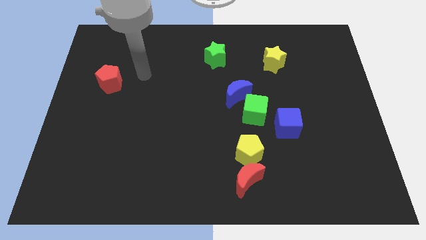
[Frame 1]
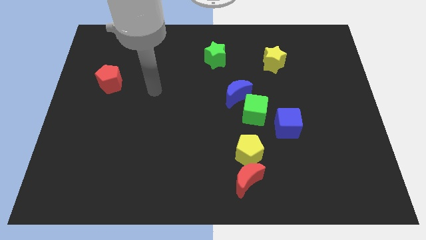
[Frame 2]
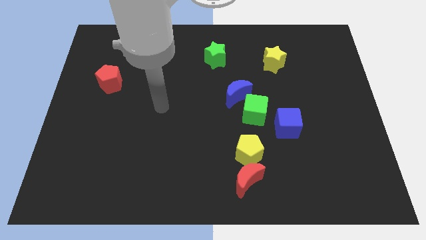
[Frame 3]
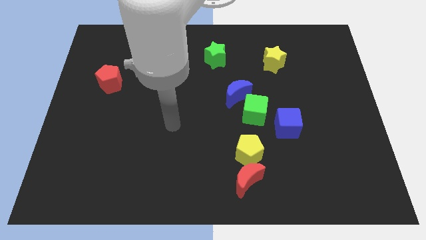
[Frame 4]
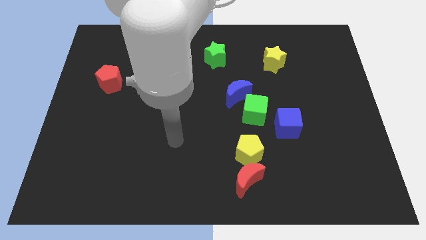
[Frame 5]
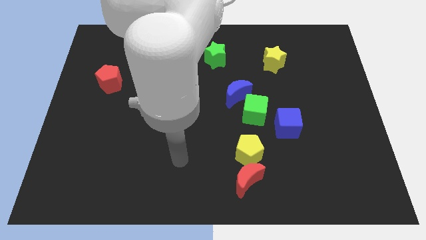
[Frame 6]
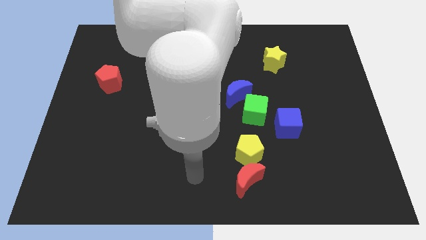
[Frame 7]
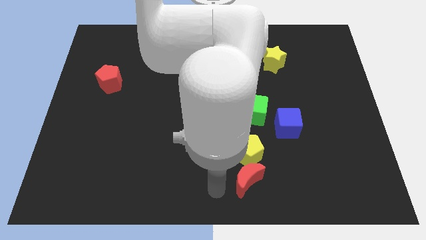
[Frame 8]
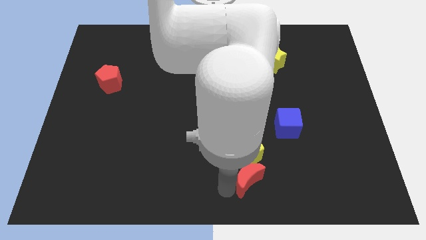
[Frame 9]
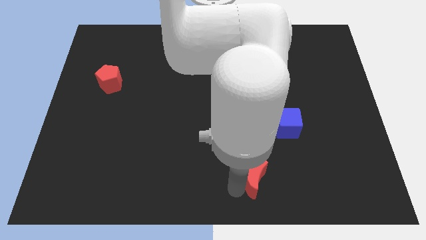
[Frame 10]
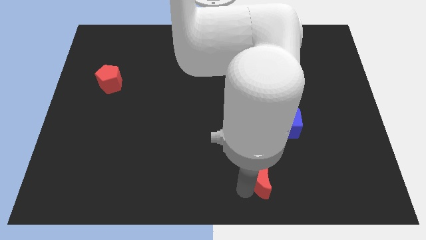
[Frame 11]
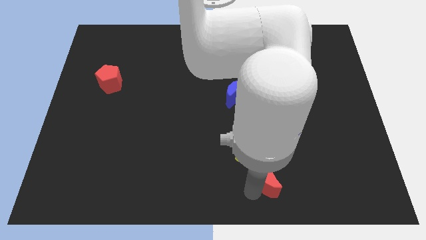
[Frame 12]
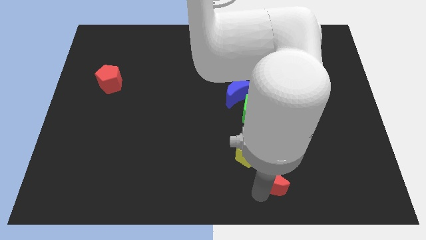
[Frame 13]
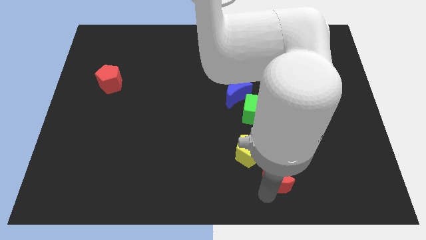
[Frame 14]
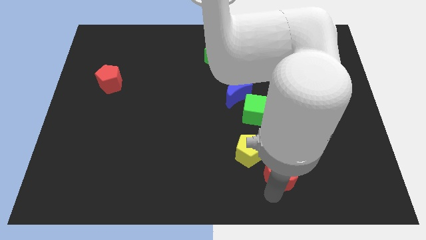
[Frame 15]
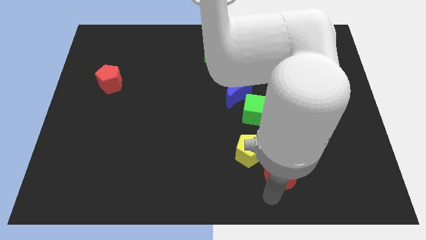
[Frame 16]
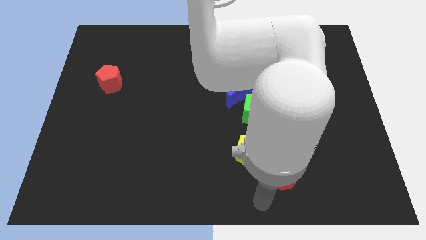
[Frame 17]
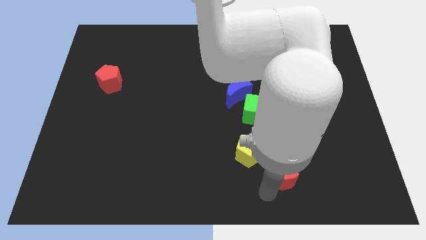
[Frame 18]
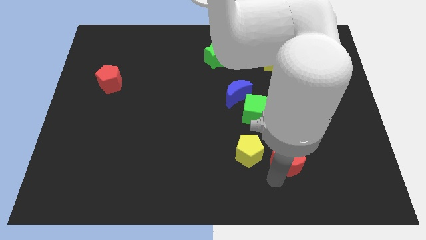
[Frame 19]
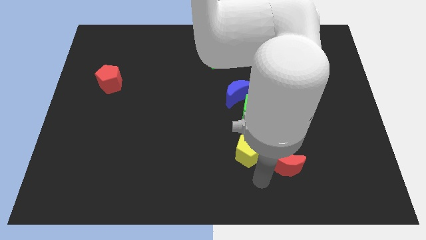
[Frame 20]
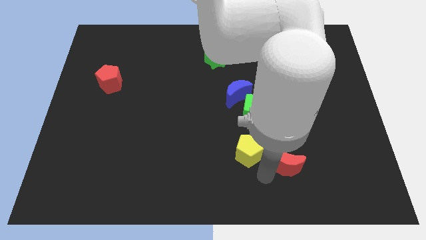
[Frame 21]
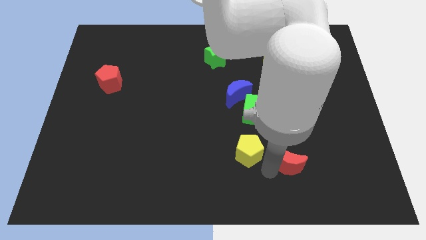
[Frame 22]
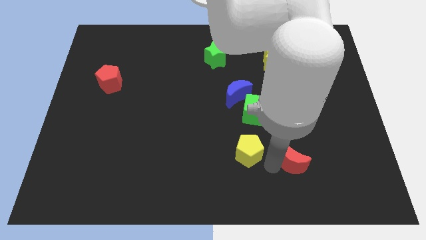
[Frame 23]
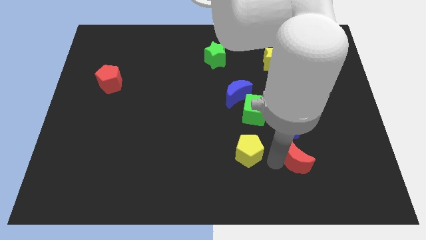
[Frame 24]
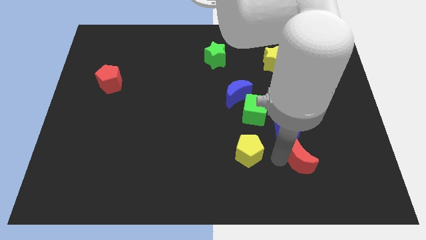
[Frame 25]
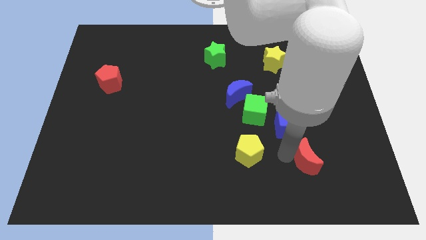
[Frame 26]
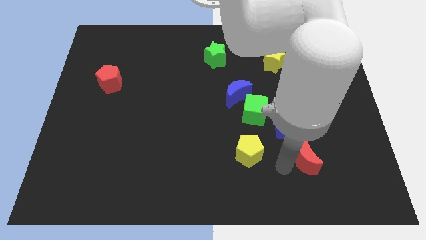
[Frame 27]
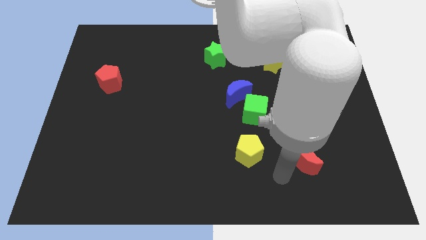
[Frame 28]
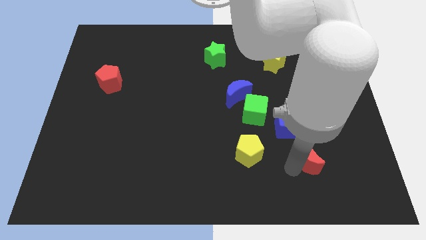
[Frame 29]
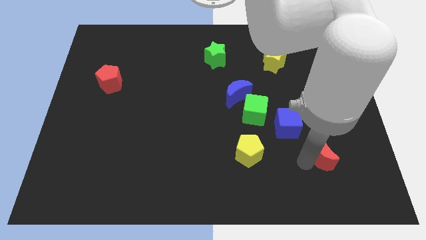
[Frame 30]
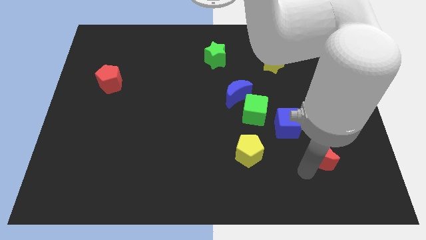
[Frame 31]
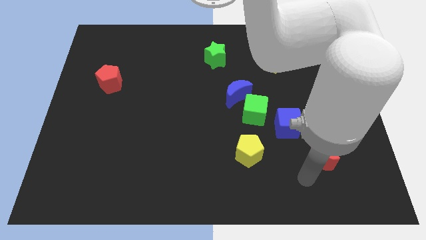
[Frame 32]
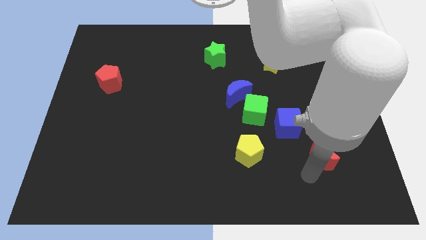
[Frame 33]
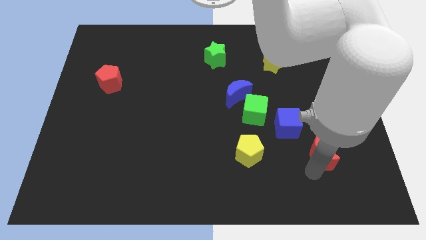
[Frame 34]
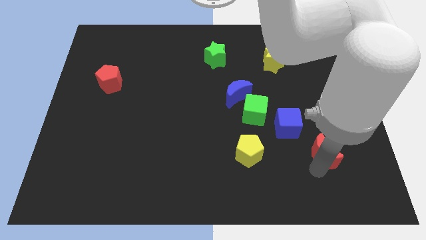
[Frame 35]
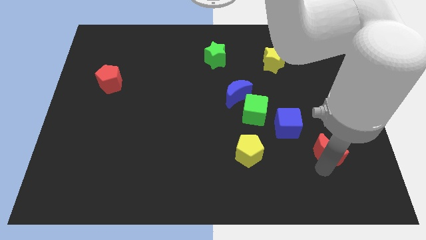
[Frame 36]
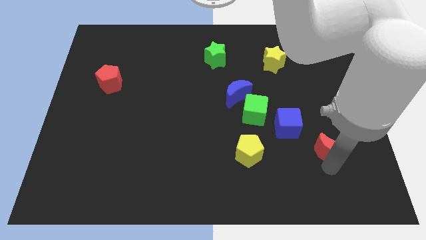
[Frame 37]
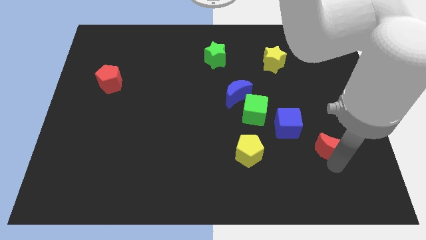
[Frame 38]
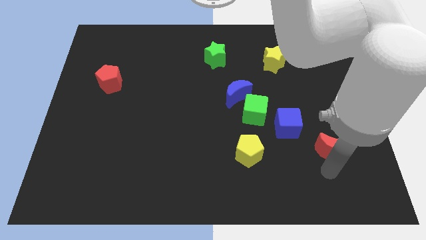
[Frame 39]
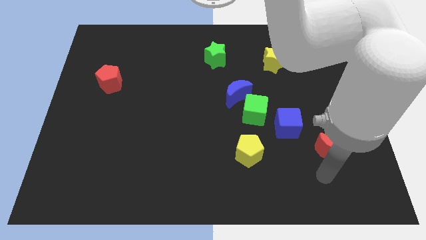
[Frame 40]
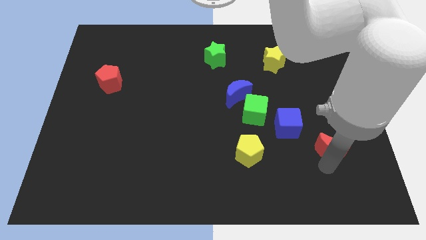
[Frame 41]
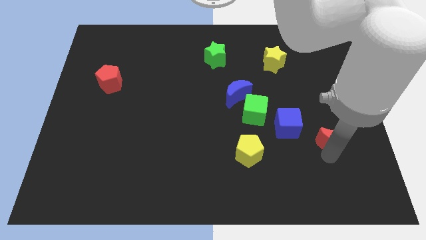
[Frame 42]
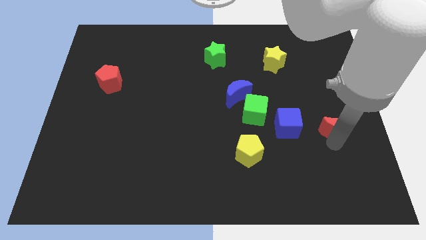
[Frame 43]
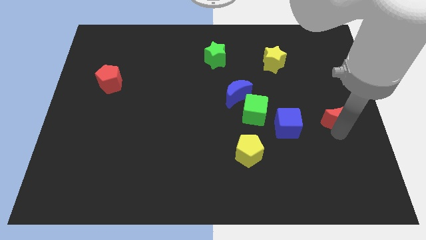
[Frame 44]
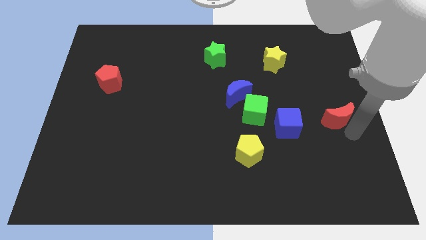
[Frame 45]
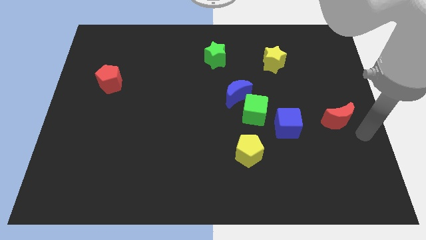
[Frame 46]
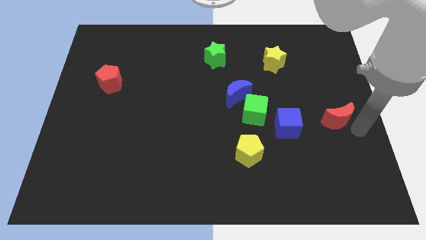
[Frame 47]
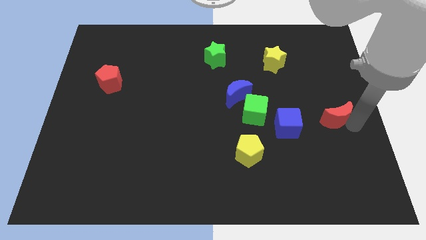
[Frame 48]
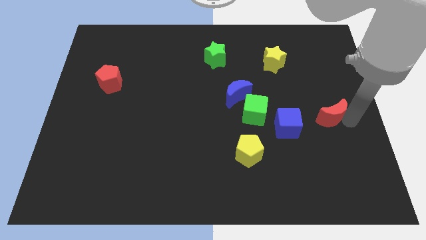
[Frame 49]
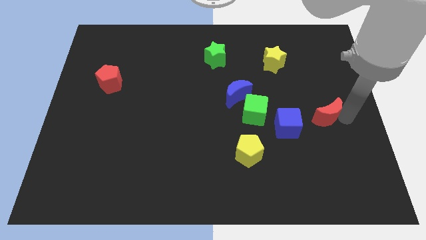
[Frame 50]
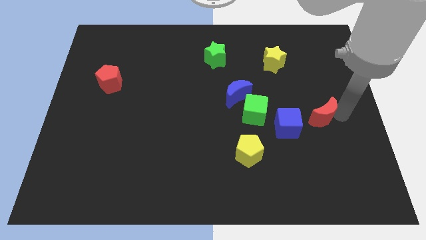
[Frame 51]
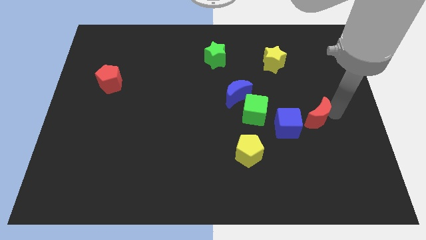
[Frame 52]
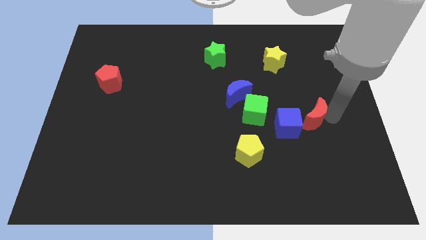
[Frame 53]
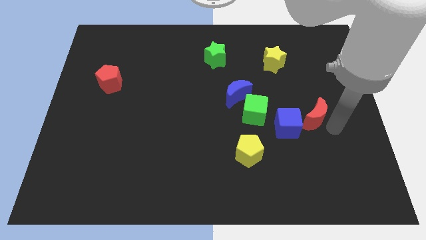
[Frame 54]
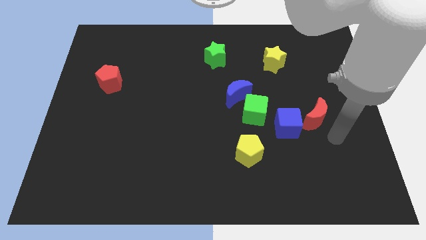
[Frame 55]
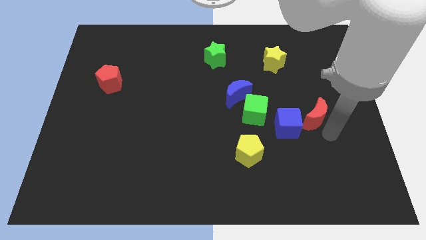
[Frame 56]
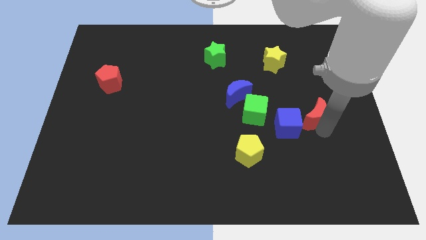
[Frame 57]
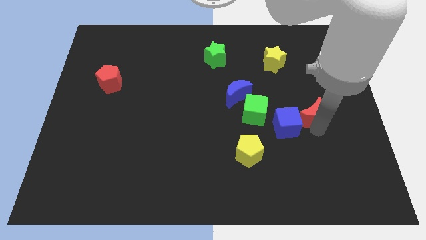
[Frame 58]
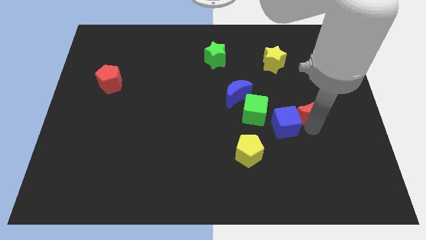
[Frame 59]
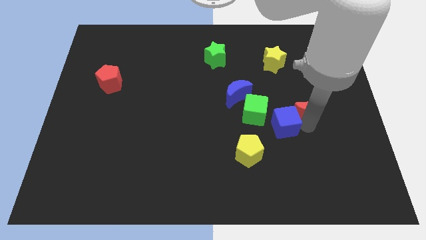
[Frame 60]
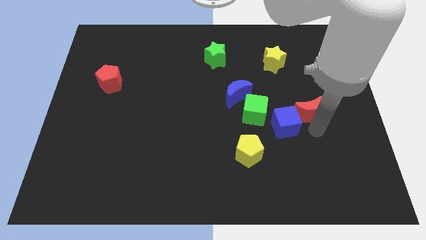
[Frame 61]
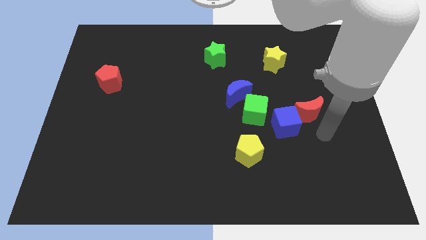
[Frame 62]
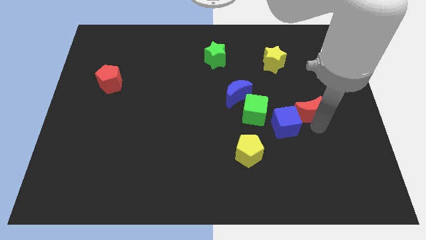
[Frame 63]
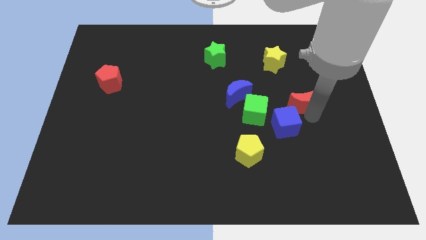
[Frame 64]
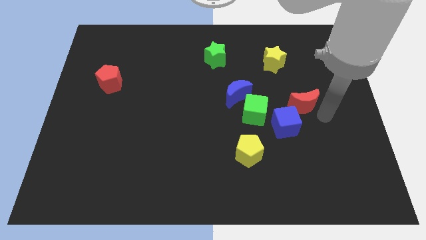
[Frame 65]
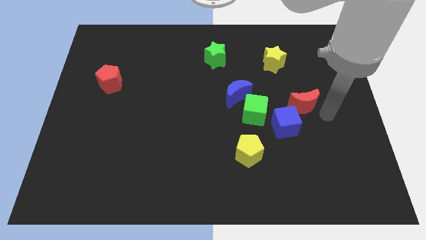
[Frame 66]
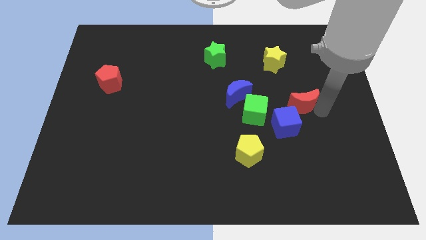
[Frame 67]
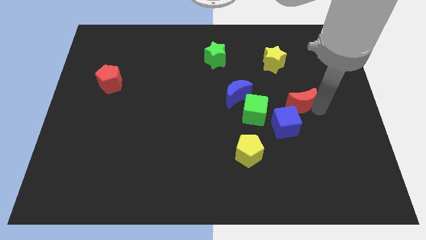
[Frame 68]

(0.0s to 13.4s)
move the red moon just right of the blue moon
